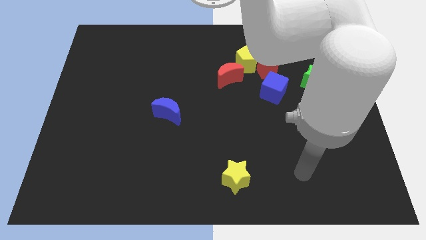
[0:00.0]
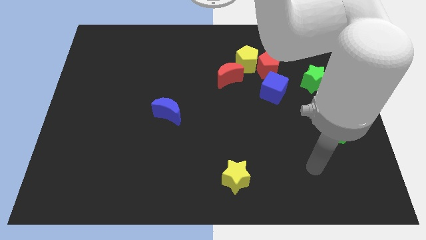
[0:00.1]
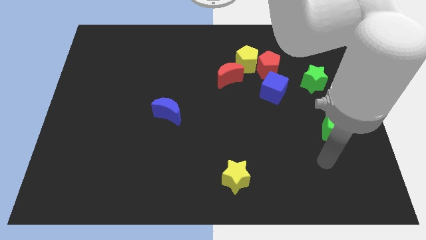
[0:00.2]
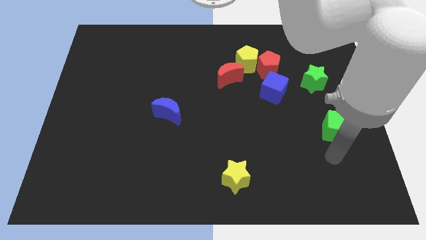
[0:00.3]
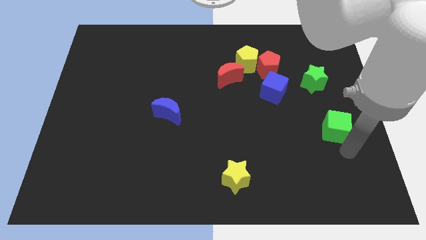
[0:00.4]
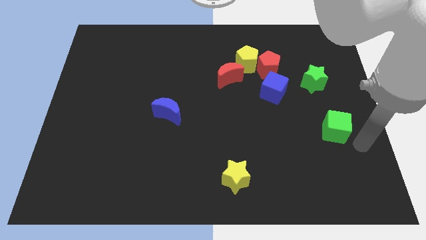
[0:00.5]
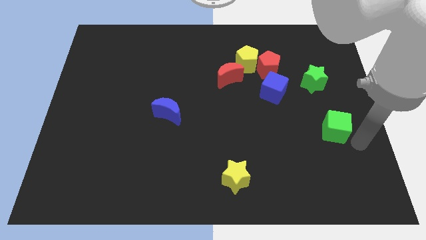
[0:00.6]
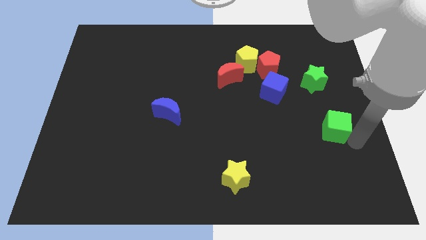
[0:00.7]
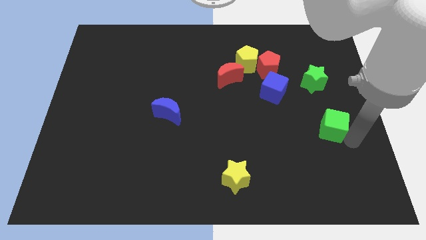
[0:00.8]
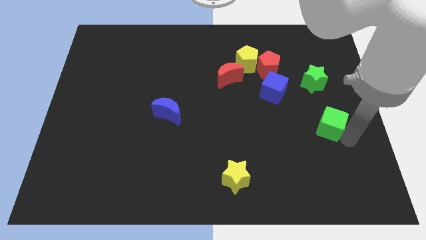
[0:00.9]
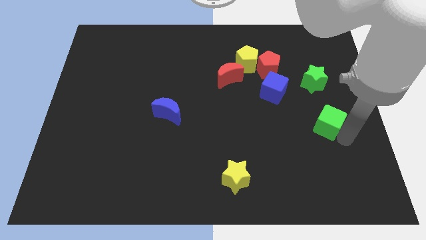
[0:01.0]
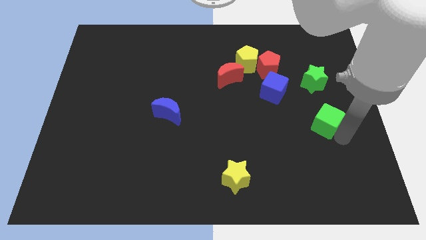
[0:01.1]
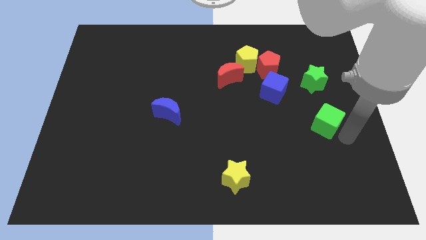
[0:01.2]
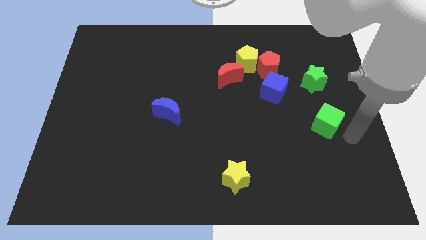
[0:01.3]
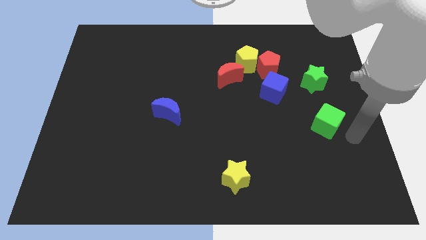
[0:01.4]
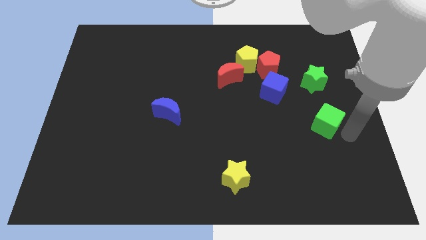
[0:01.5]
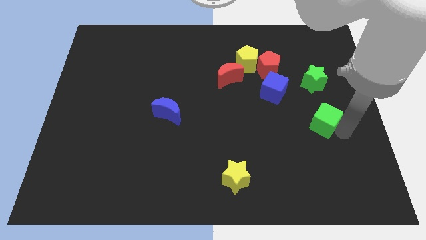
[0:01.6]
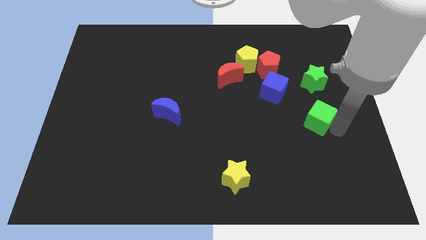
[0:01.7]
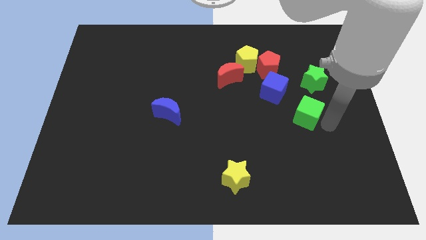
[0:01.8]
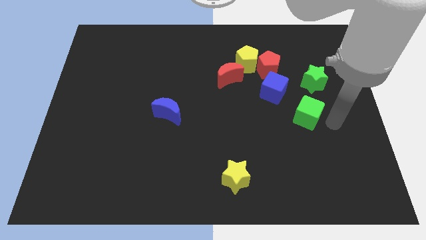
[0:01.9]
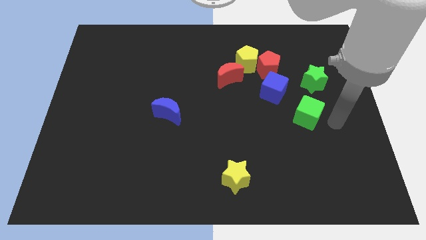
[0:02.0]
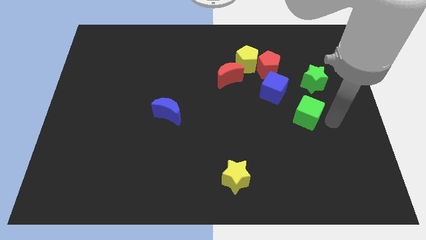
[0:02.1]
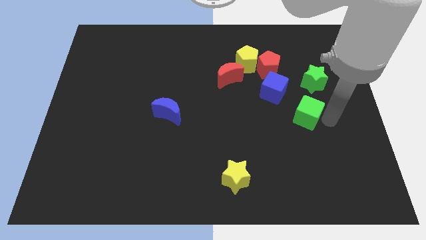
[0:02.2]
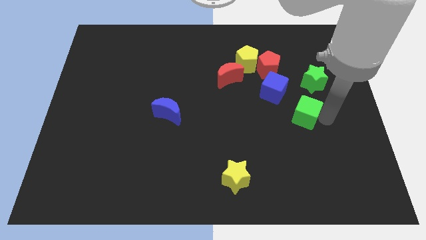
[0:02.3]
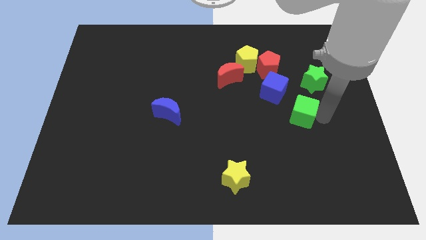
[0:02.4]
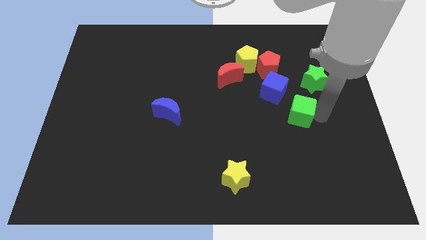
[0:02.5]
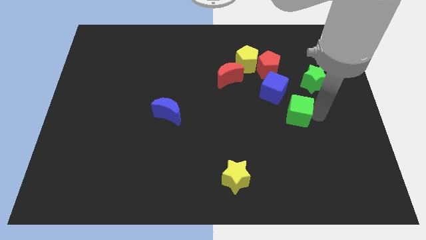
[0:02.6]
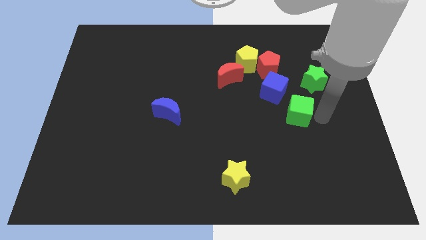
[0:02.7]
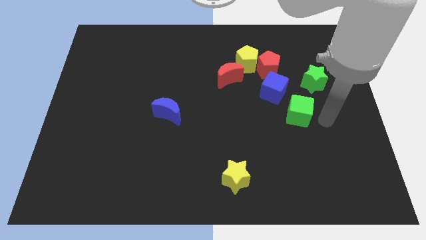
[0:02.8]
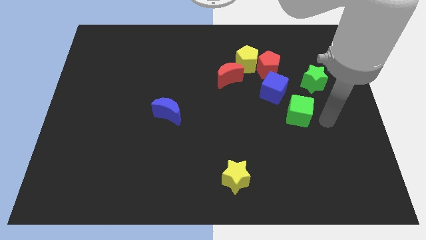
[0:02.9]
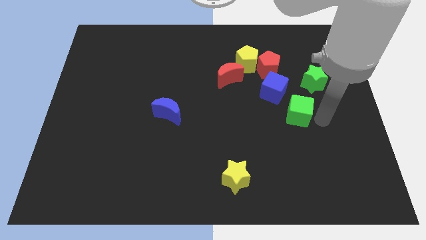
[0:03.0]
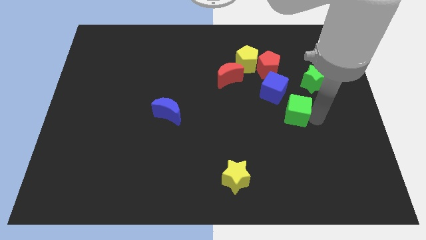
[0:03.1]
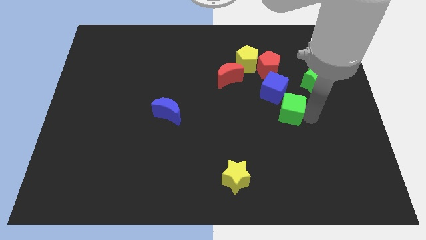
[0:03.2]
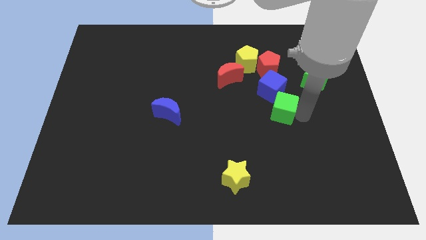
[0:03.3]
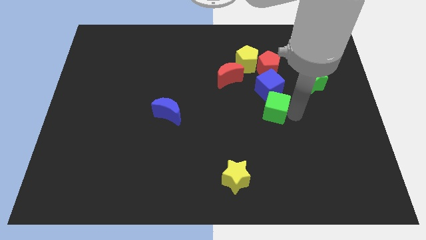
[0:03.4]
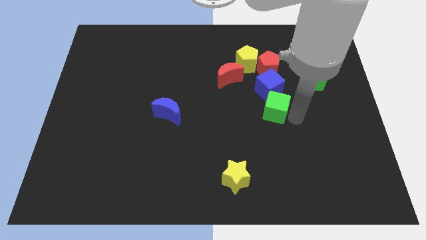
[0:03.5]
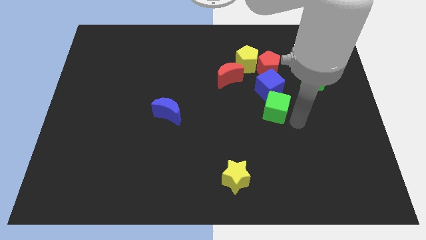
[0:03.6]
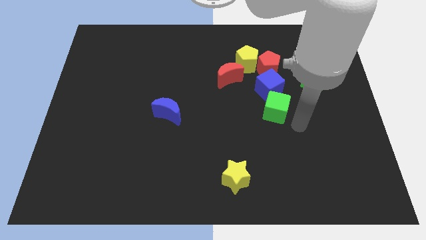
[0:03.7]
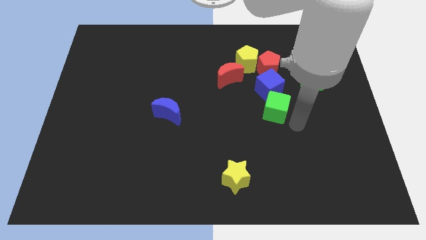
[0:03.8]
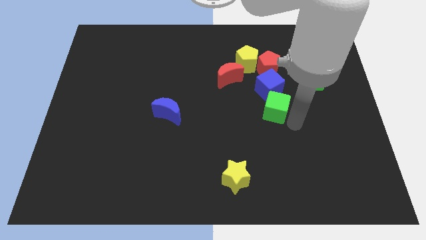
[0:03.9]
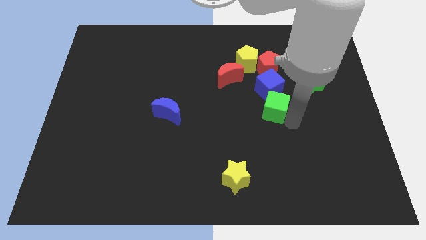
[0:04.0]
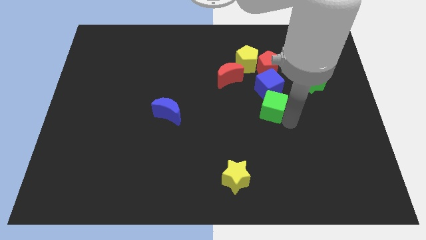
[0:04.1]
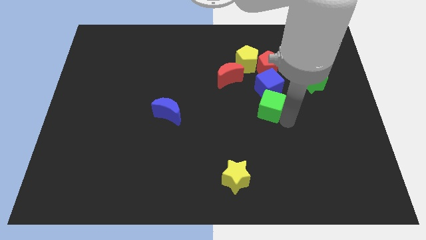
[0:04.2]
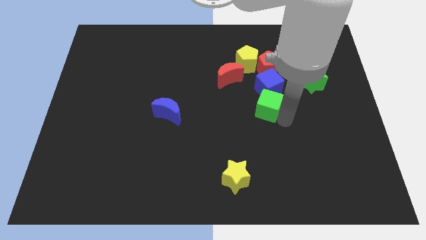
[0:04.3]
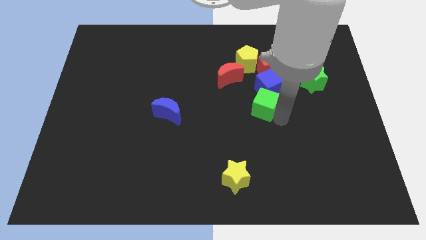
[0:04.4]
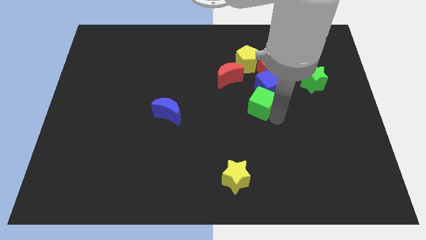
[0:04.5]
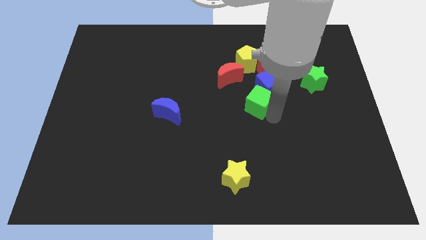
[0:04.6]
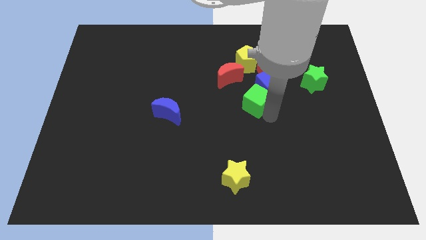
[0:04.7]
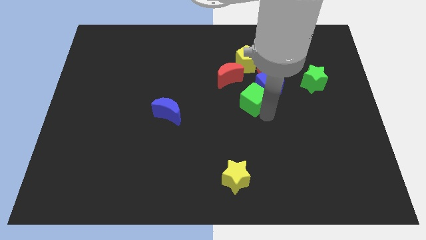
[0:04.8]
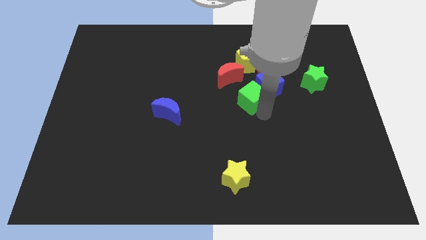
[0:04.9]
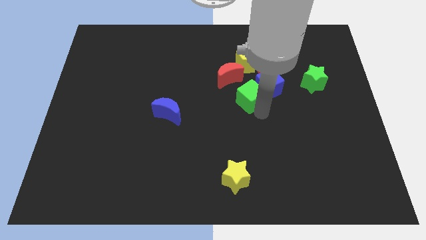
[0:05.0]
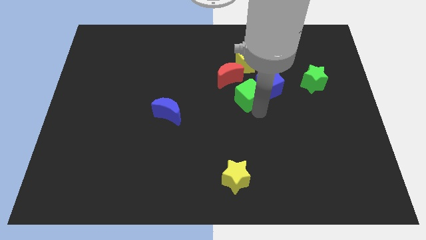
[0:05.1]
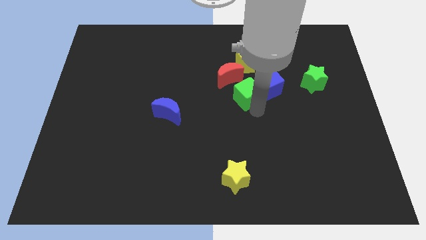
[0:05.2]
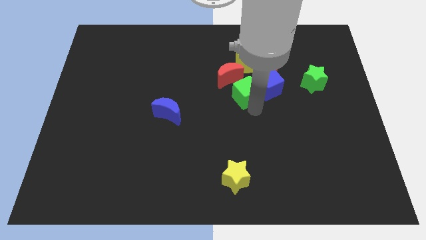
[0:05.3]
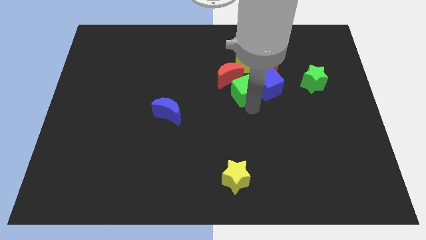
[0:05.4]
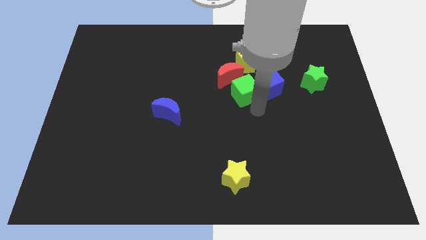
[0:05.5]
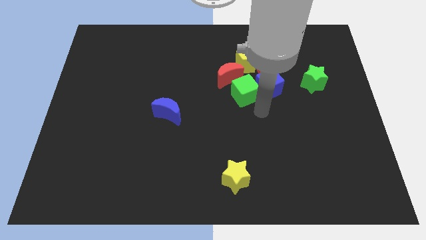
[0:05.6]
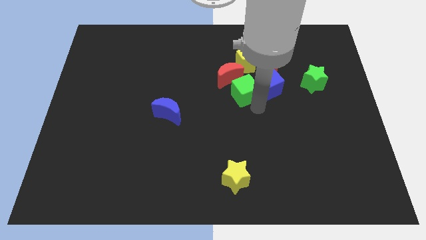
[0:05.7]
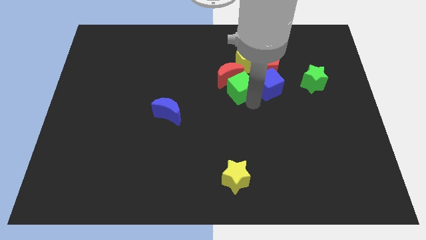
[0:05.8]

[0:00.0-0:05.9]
push the green cube close to the red moon

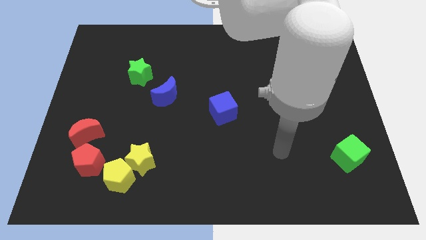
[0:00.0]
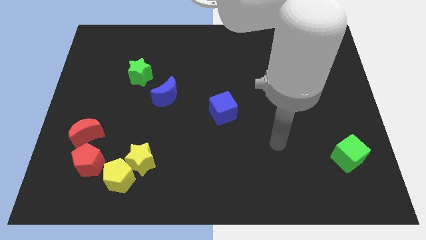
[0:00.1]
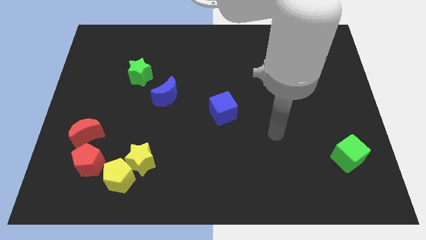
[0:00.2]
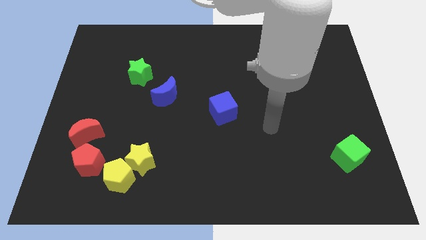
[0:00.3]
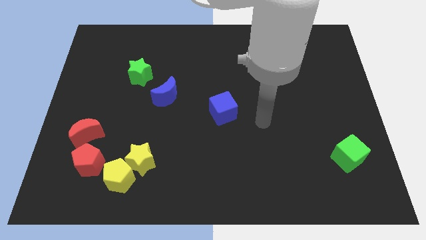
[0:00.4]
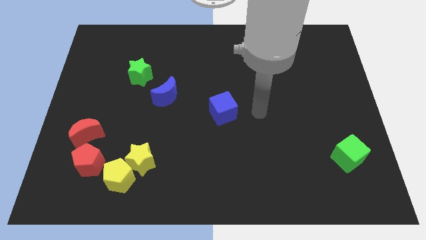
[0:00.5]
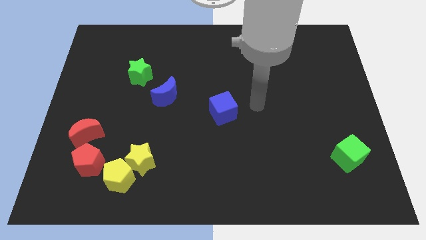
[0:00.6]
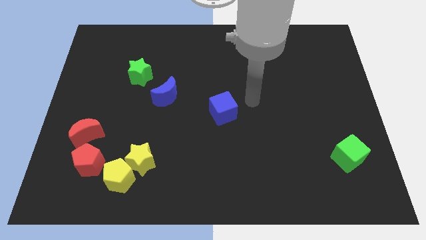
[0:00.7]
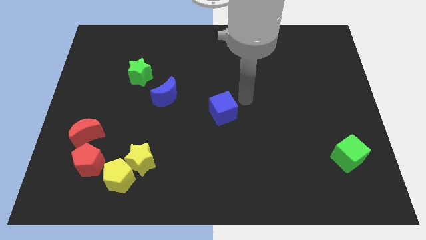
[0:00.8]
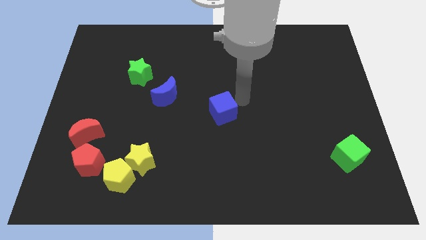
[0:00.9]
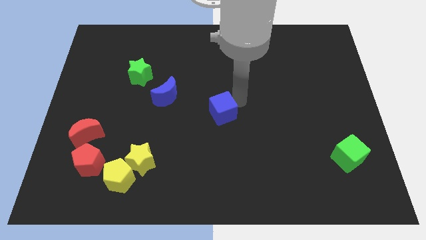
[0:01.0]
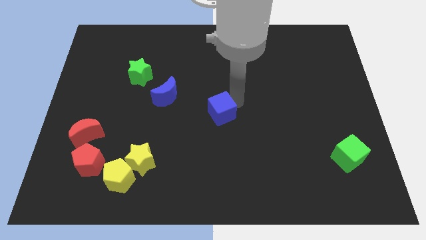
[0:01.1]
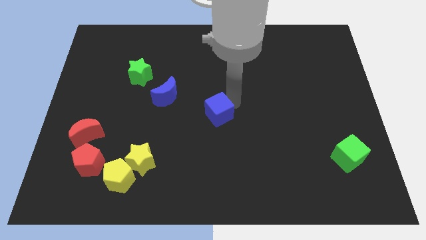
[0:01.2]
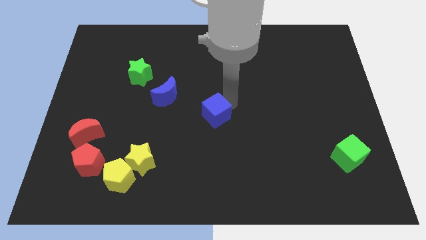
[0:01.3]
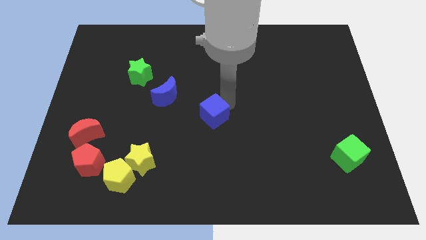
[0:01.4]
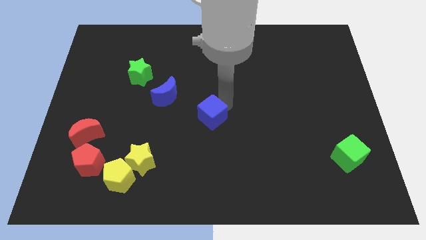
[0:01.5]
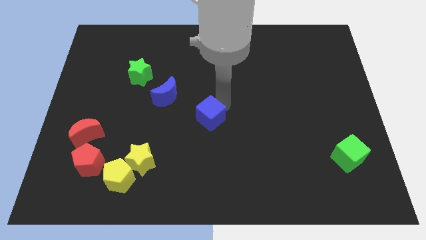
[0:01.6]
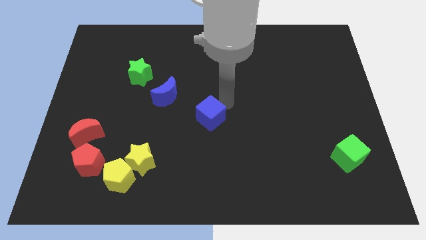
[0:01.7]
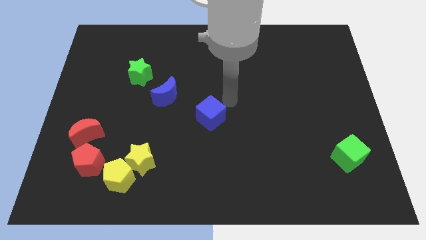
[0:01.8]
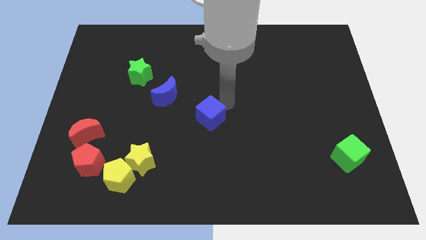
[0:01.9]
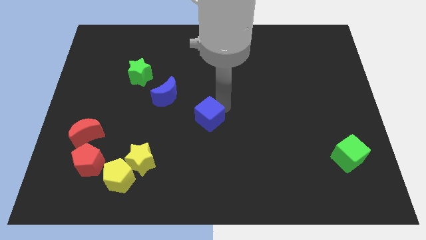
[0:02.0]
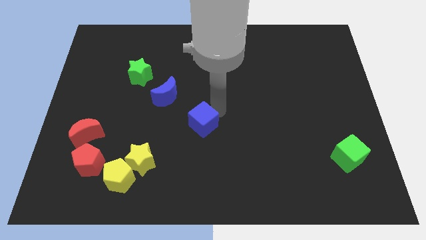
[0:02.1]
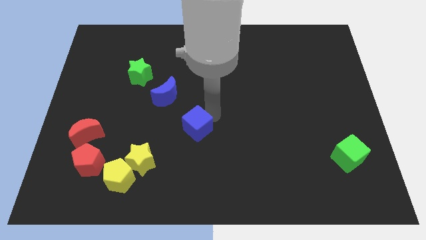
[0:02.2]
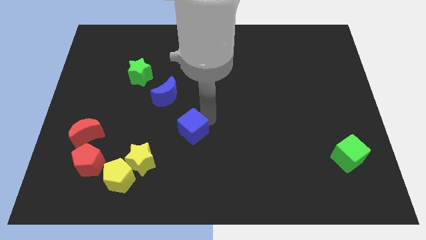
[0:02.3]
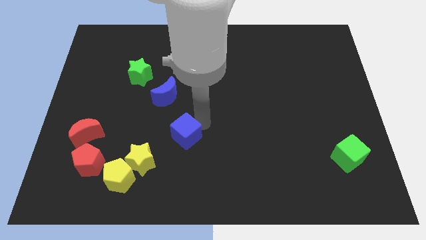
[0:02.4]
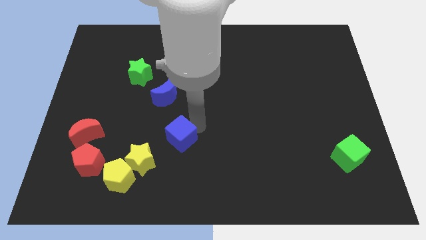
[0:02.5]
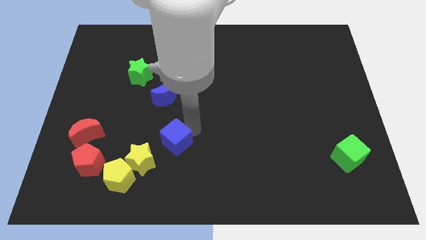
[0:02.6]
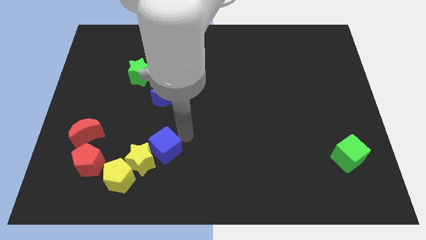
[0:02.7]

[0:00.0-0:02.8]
move the blue cube to the yellow star
